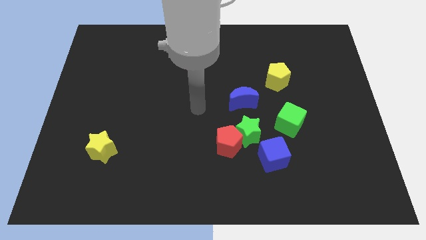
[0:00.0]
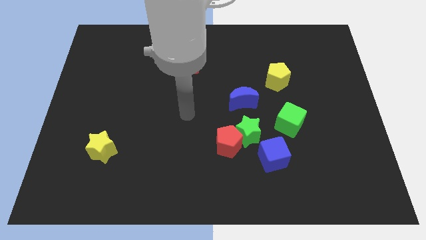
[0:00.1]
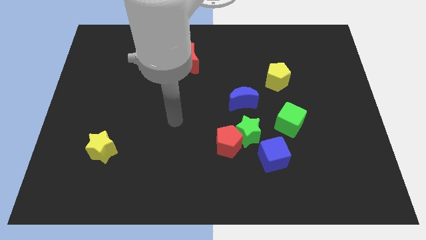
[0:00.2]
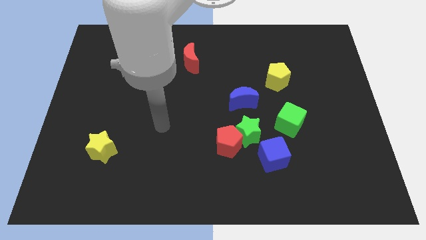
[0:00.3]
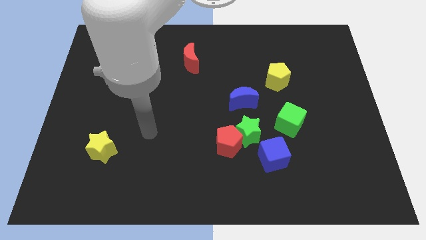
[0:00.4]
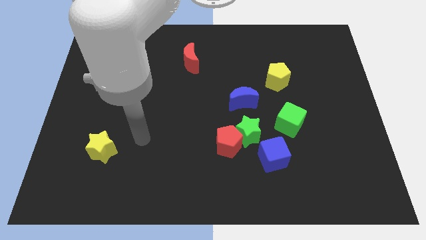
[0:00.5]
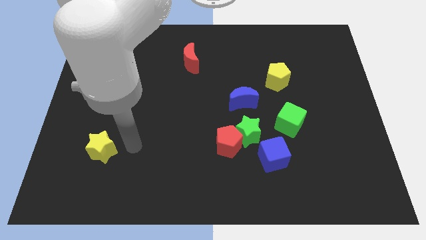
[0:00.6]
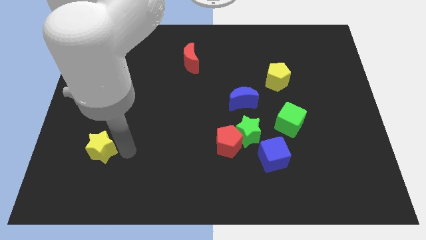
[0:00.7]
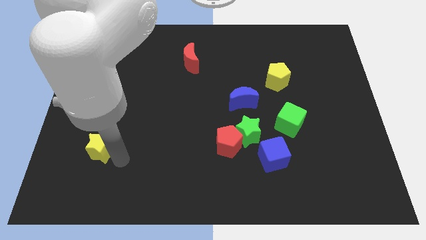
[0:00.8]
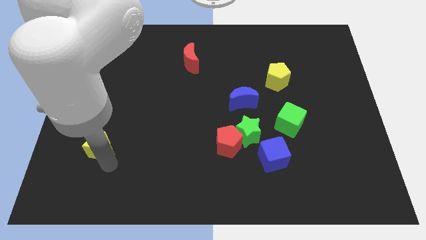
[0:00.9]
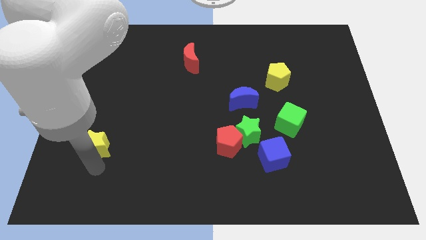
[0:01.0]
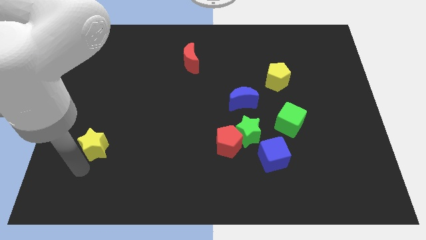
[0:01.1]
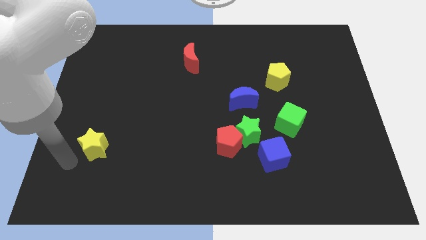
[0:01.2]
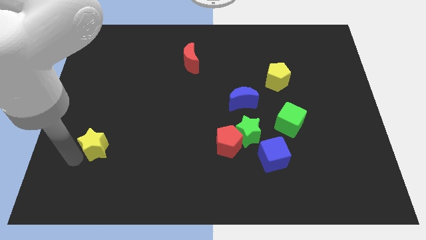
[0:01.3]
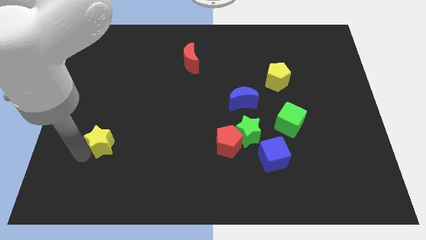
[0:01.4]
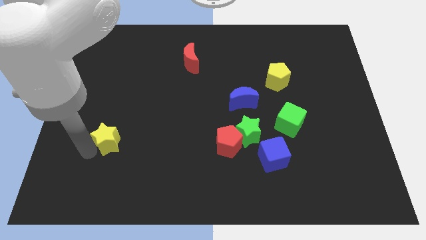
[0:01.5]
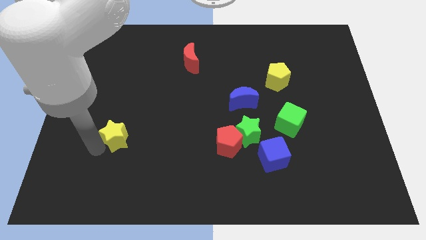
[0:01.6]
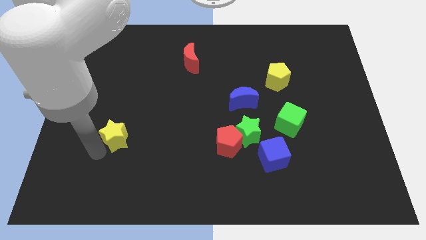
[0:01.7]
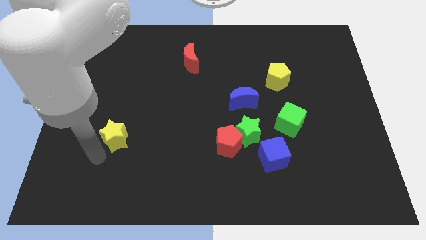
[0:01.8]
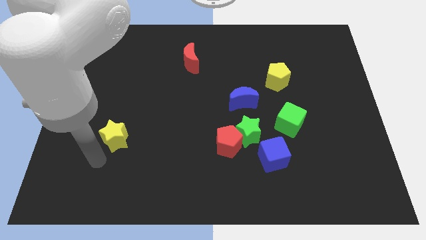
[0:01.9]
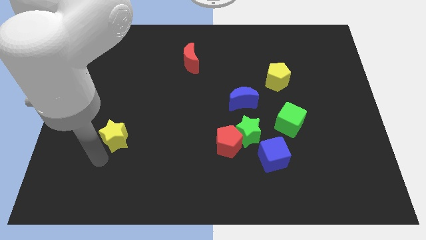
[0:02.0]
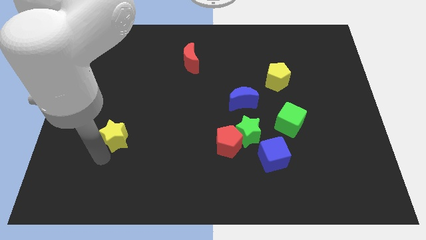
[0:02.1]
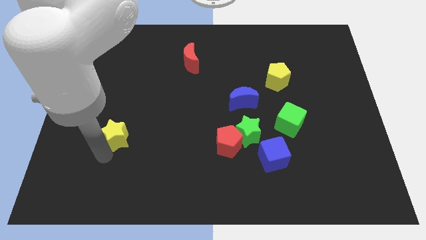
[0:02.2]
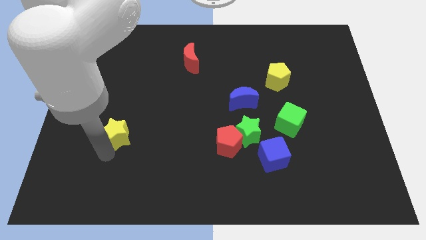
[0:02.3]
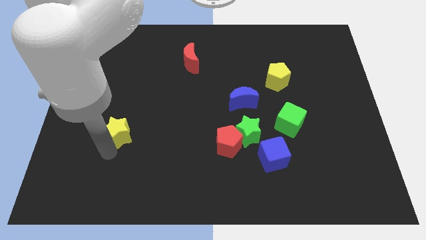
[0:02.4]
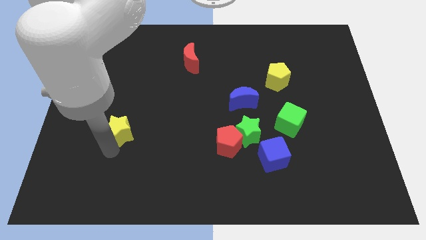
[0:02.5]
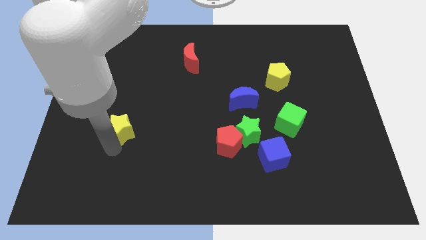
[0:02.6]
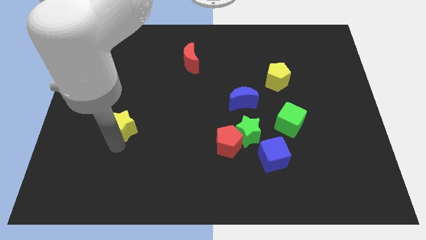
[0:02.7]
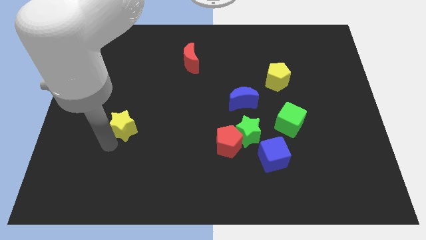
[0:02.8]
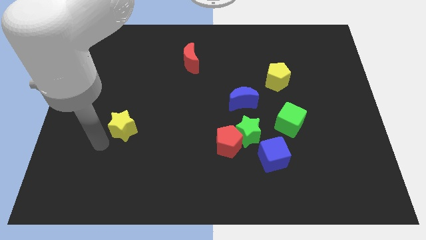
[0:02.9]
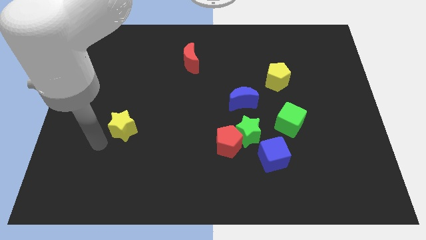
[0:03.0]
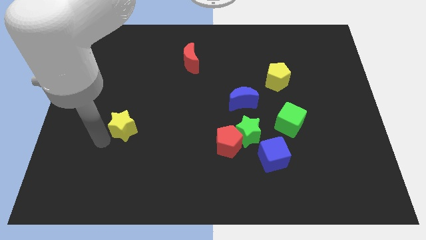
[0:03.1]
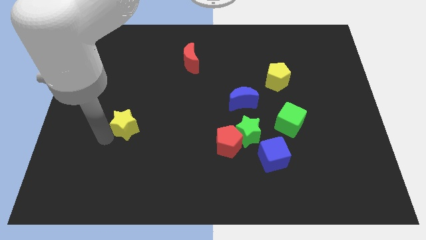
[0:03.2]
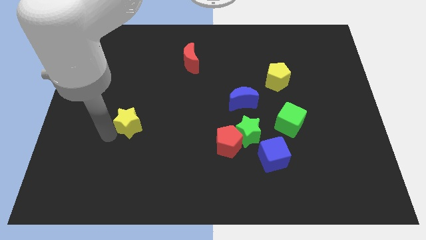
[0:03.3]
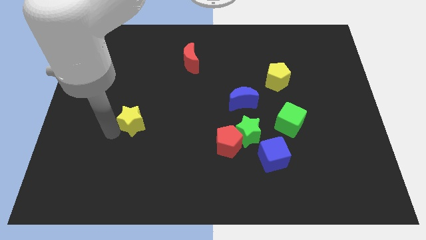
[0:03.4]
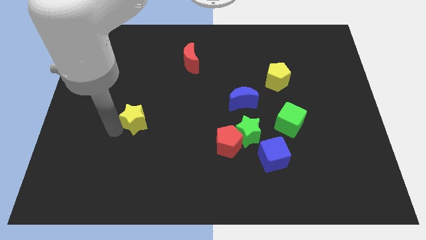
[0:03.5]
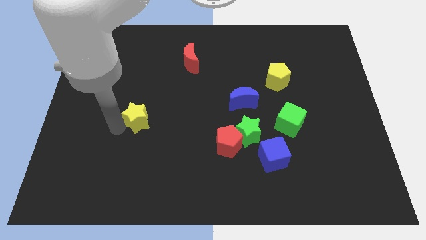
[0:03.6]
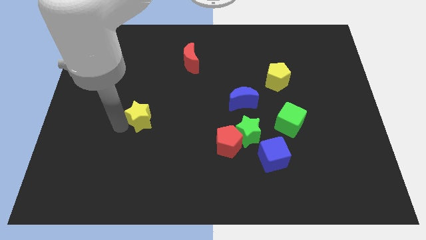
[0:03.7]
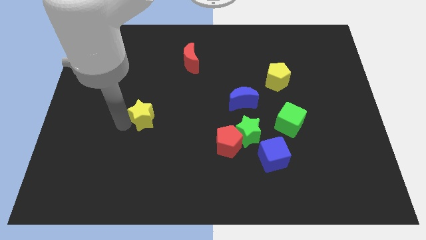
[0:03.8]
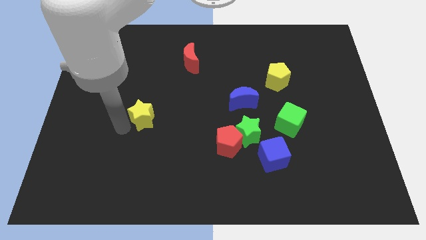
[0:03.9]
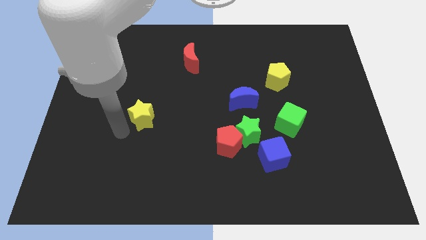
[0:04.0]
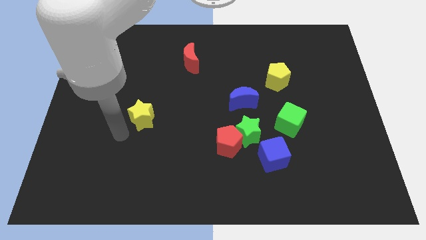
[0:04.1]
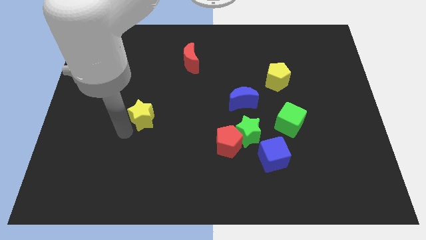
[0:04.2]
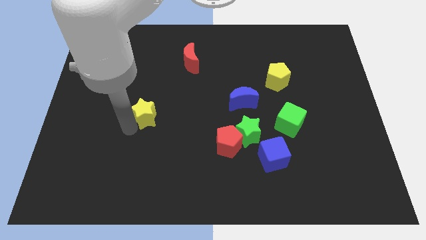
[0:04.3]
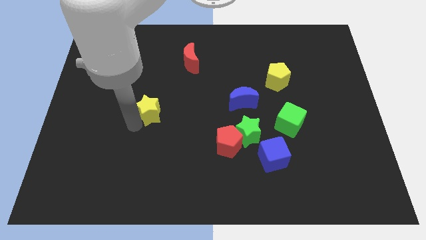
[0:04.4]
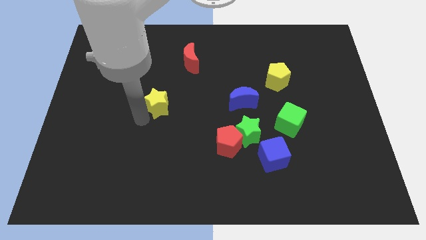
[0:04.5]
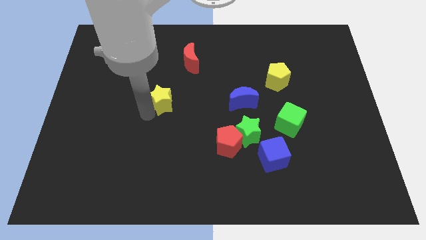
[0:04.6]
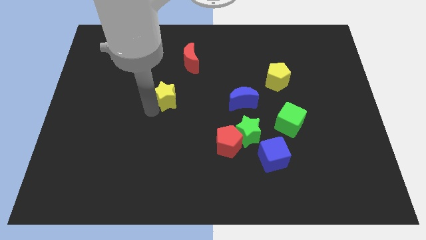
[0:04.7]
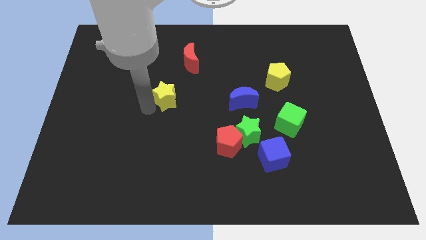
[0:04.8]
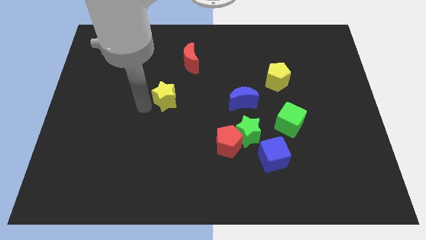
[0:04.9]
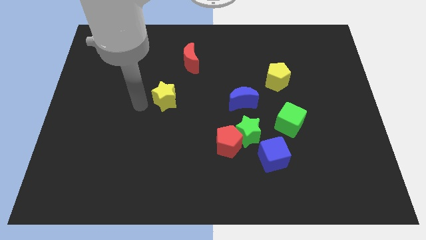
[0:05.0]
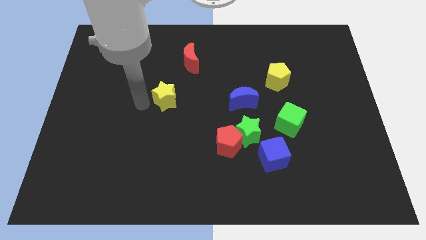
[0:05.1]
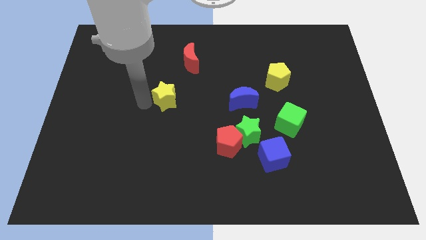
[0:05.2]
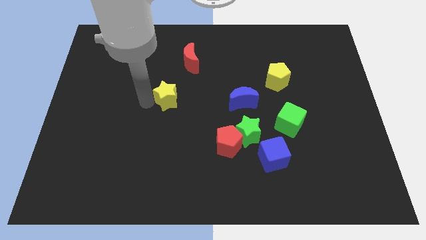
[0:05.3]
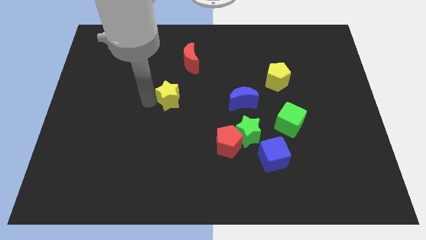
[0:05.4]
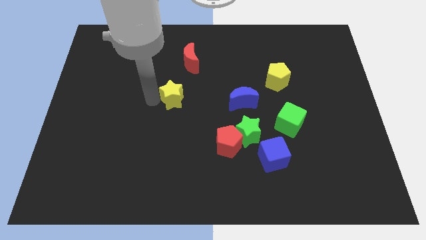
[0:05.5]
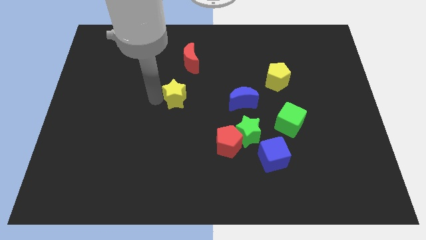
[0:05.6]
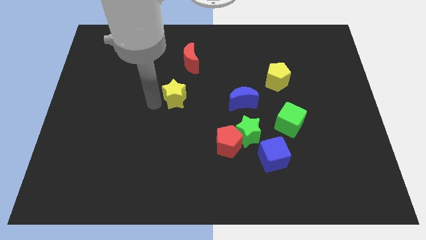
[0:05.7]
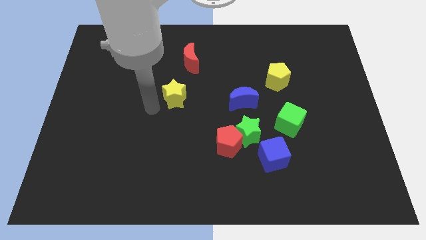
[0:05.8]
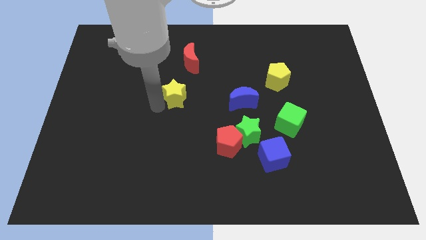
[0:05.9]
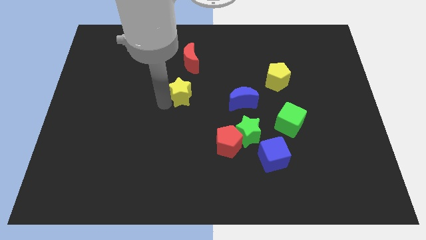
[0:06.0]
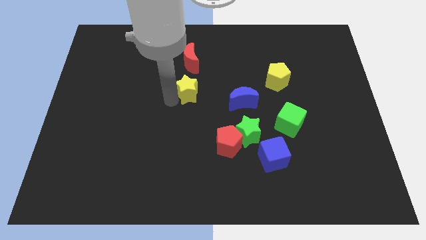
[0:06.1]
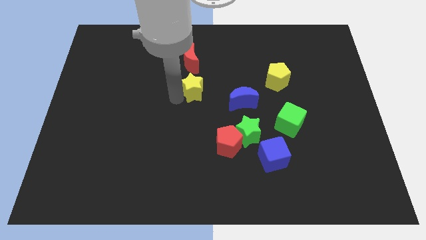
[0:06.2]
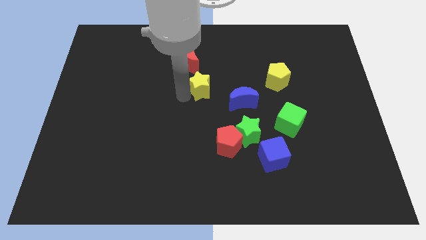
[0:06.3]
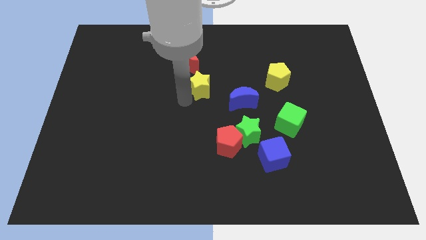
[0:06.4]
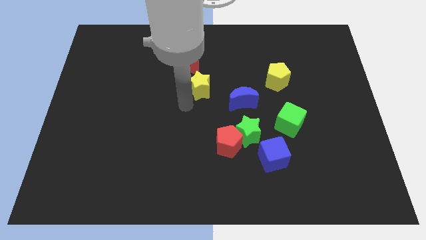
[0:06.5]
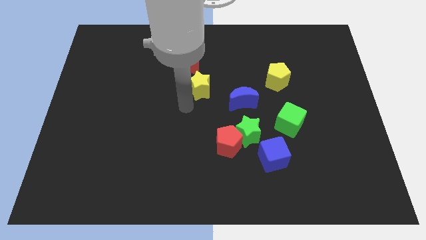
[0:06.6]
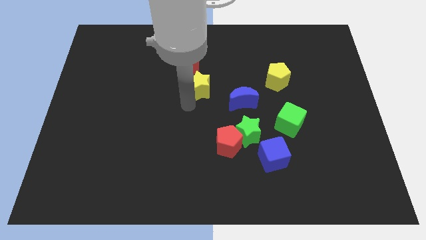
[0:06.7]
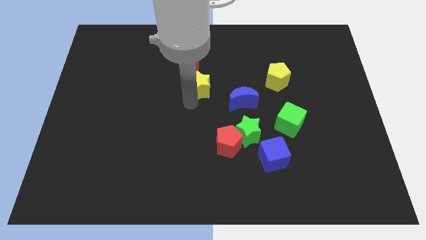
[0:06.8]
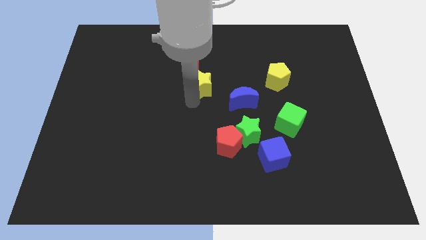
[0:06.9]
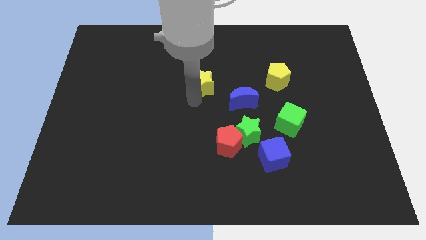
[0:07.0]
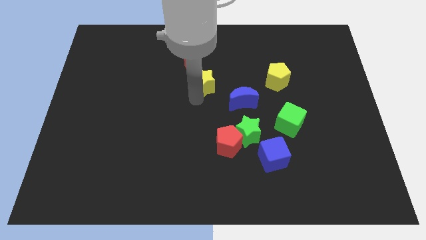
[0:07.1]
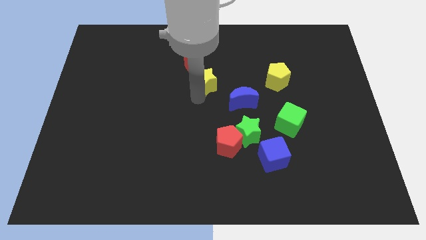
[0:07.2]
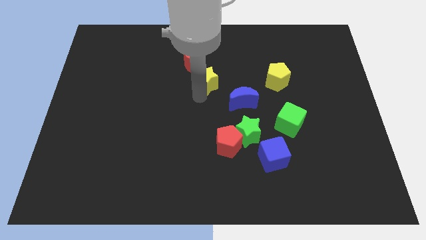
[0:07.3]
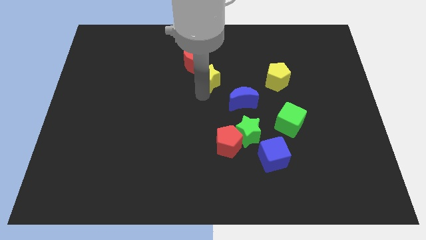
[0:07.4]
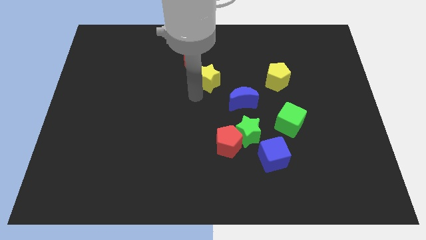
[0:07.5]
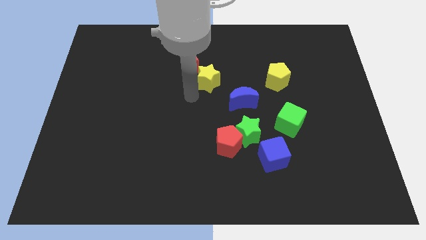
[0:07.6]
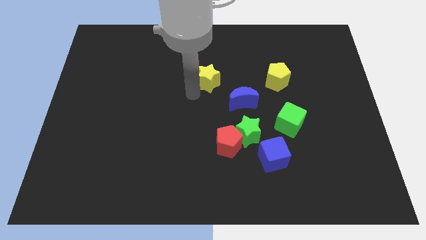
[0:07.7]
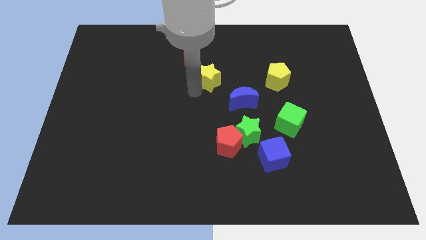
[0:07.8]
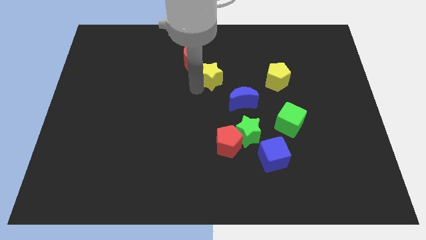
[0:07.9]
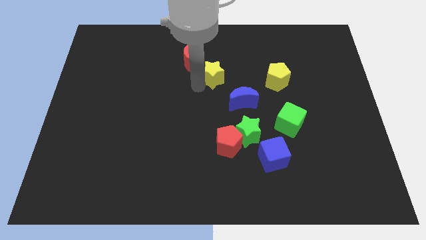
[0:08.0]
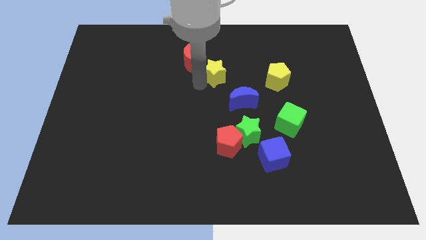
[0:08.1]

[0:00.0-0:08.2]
move the yellow star to the right side of the red moon

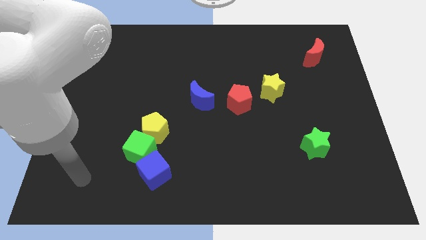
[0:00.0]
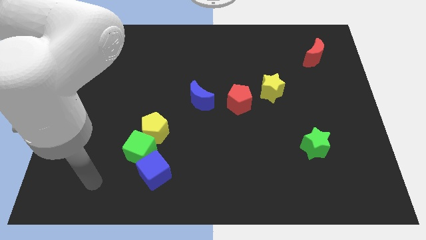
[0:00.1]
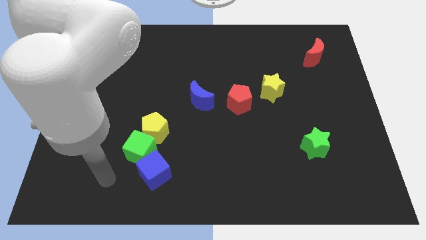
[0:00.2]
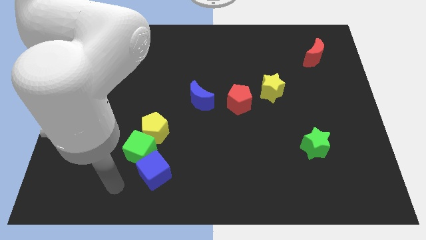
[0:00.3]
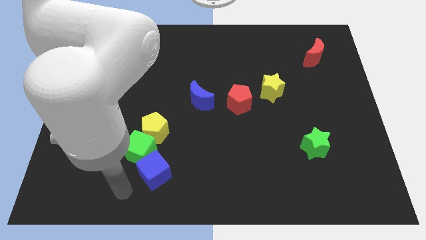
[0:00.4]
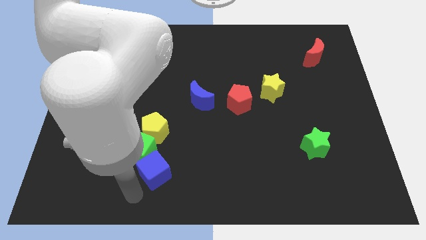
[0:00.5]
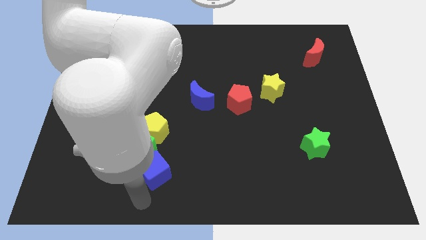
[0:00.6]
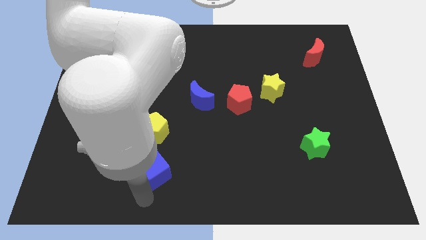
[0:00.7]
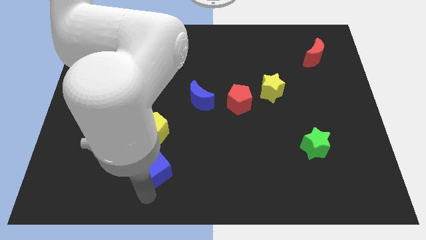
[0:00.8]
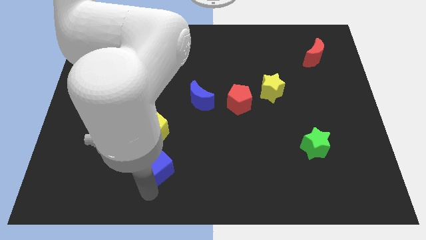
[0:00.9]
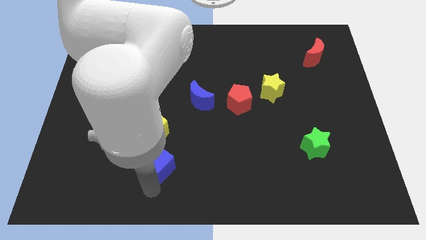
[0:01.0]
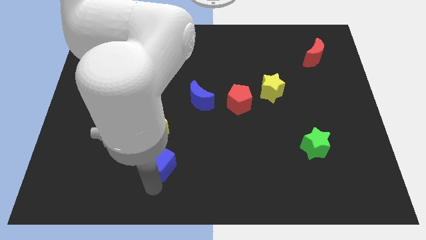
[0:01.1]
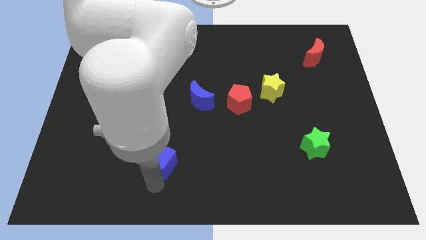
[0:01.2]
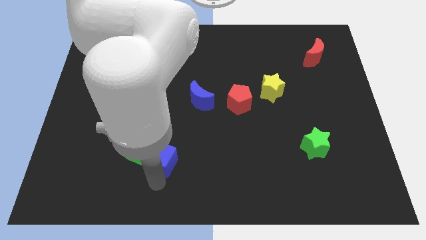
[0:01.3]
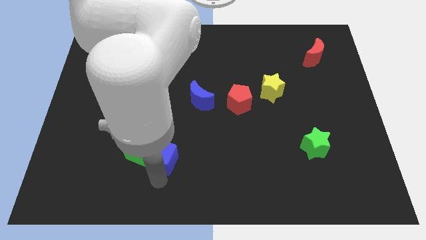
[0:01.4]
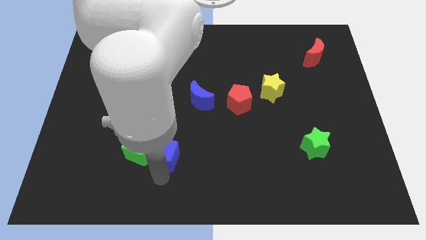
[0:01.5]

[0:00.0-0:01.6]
put the blue cube to the top right of the green cube
